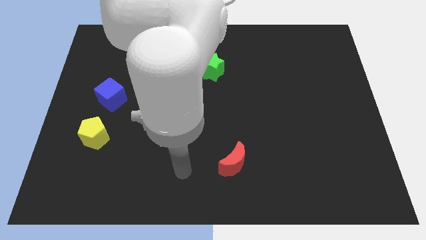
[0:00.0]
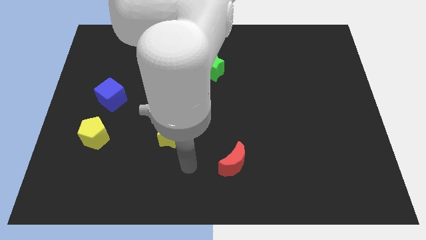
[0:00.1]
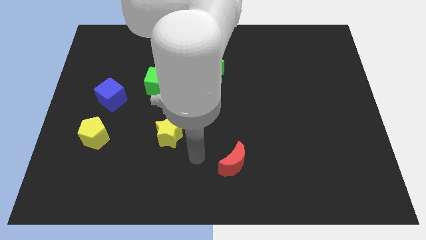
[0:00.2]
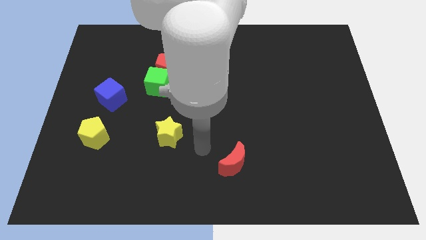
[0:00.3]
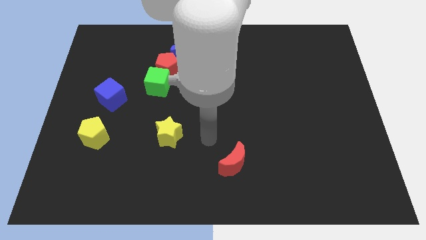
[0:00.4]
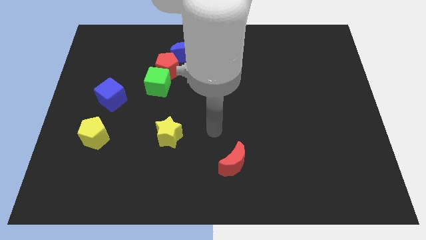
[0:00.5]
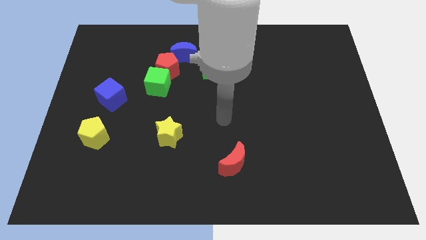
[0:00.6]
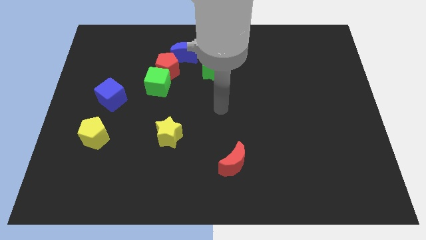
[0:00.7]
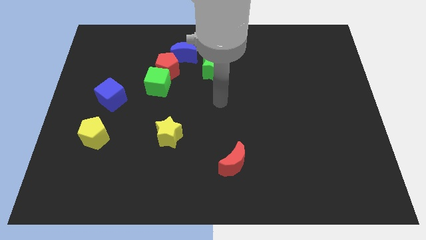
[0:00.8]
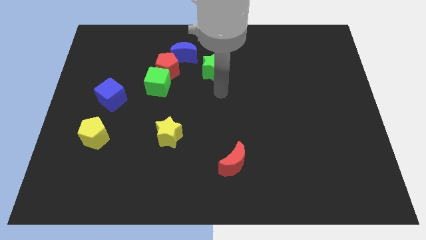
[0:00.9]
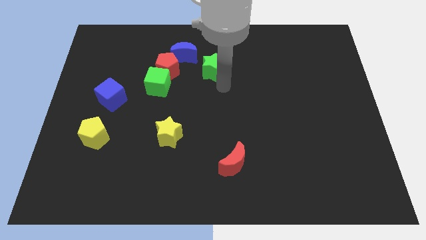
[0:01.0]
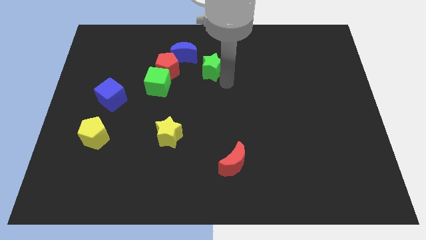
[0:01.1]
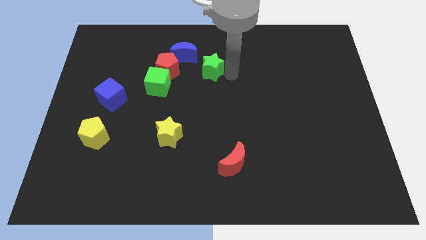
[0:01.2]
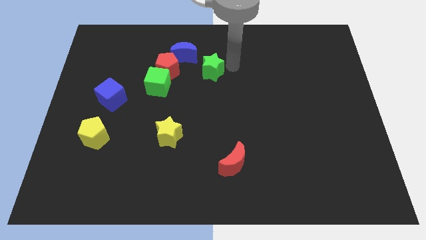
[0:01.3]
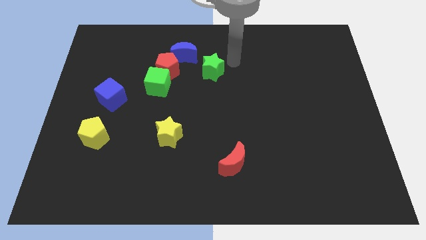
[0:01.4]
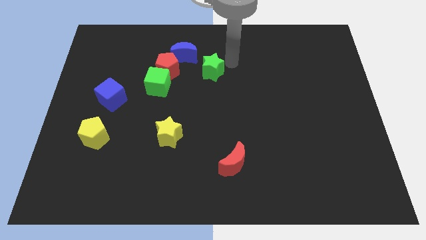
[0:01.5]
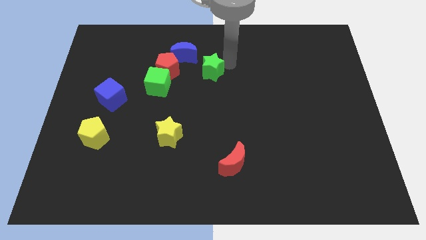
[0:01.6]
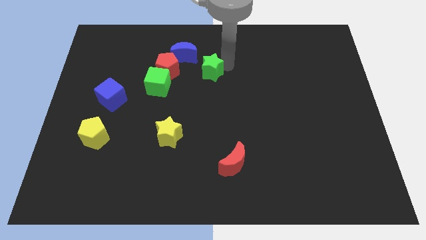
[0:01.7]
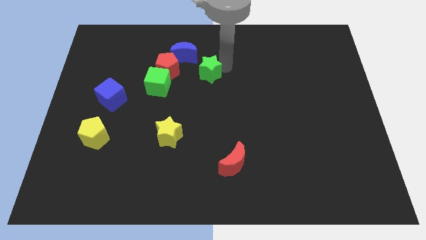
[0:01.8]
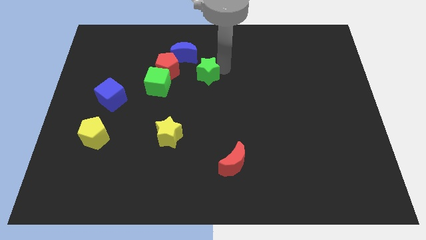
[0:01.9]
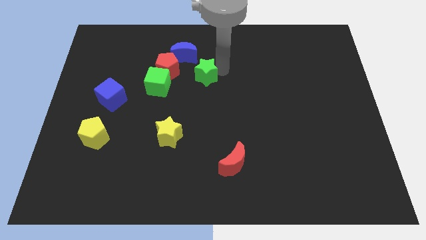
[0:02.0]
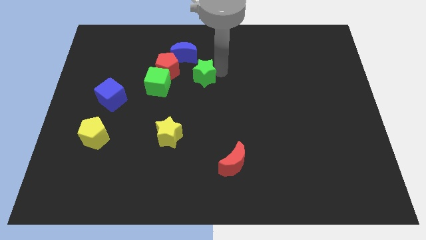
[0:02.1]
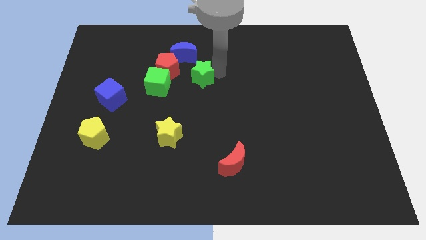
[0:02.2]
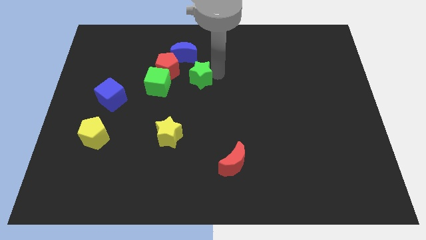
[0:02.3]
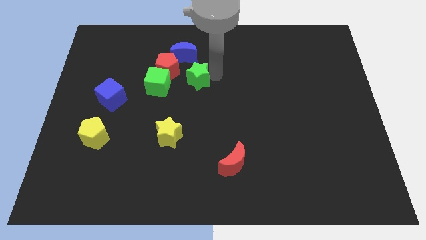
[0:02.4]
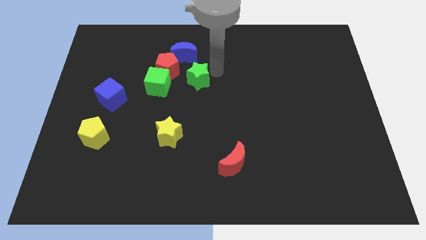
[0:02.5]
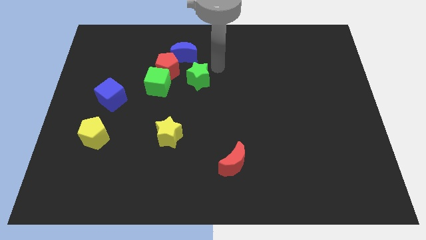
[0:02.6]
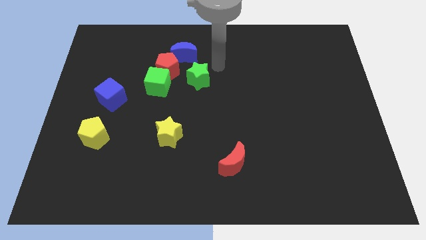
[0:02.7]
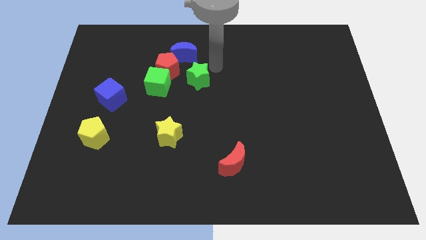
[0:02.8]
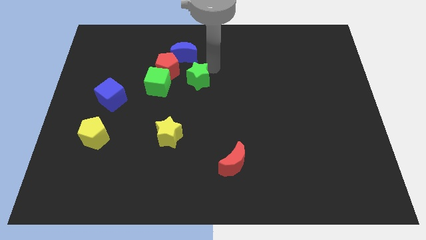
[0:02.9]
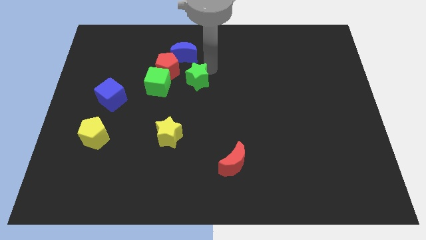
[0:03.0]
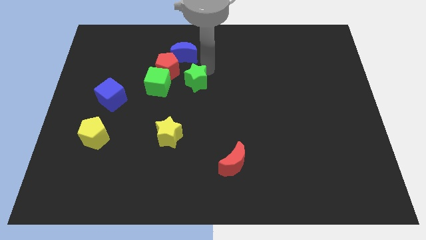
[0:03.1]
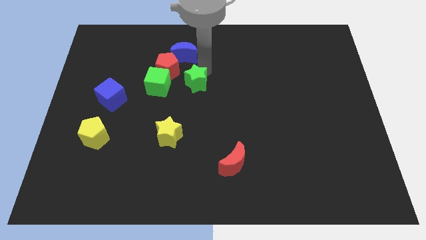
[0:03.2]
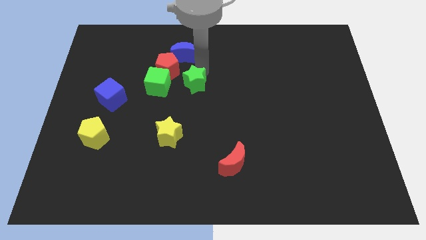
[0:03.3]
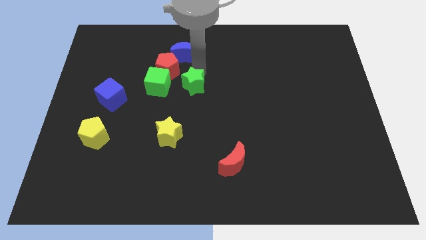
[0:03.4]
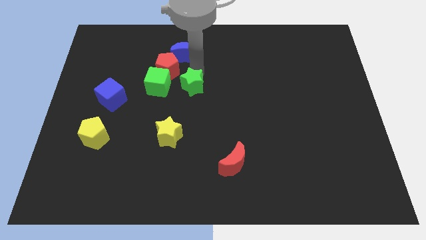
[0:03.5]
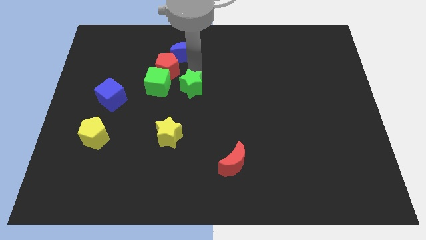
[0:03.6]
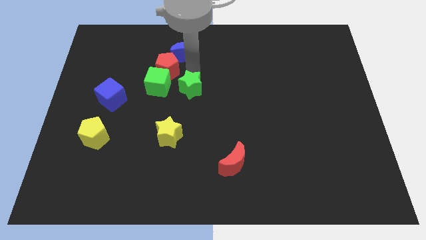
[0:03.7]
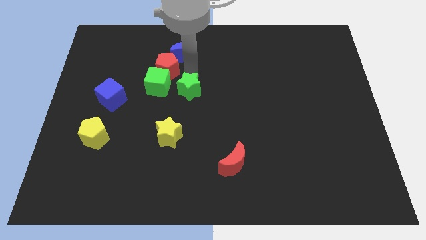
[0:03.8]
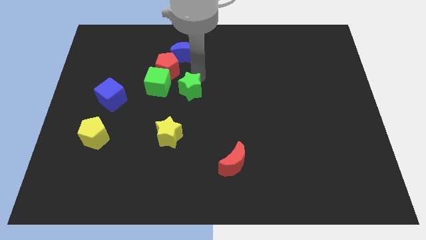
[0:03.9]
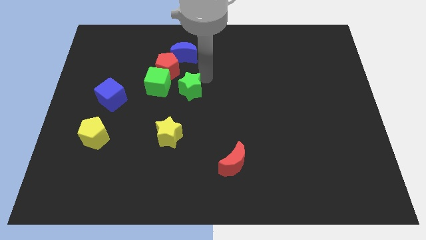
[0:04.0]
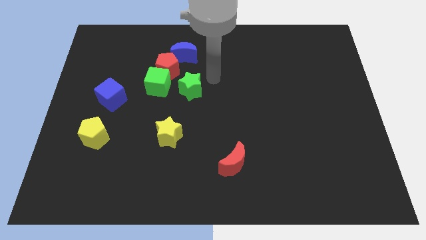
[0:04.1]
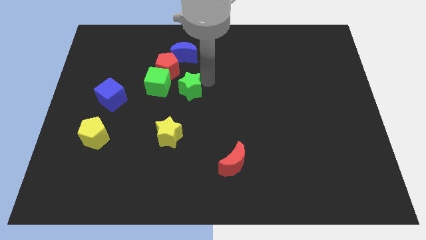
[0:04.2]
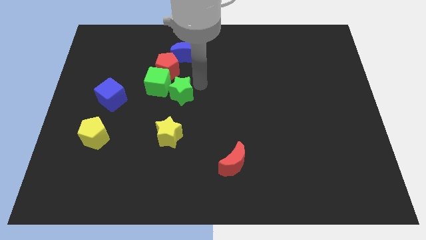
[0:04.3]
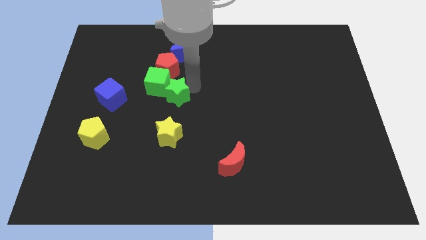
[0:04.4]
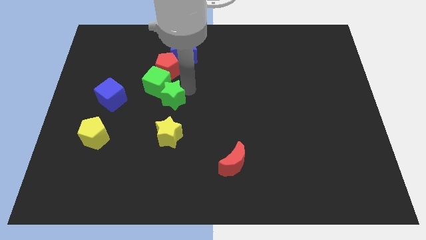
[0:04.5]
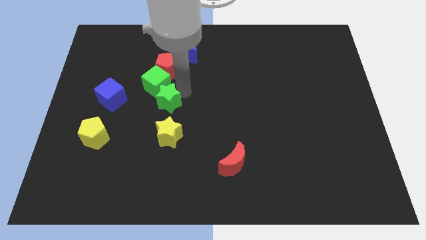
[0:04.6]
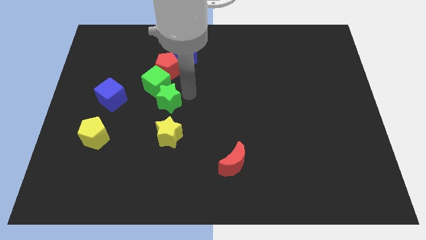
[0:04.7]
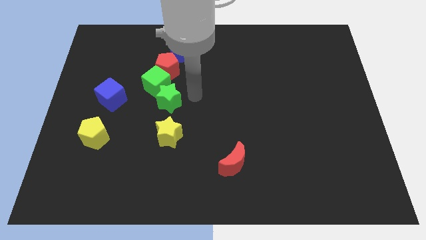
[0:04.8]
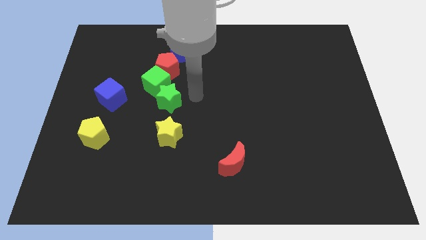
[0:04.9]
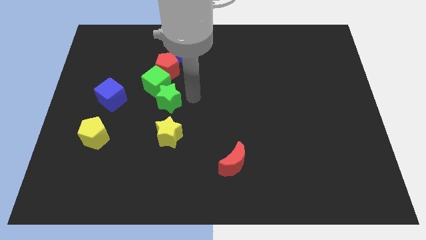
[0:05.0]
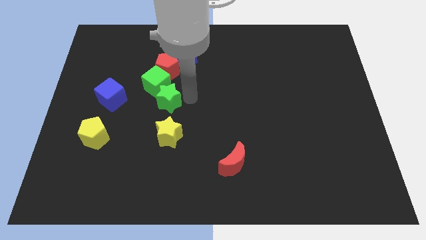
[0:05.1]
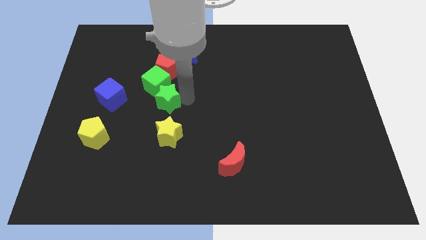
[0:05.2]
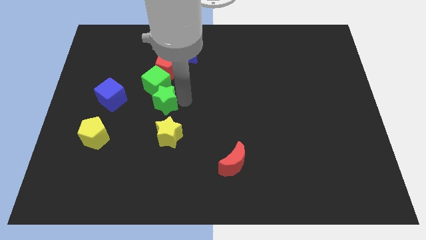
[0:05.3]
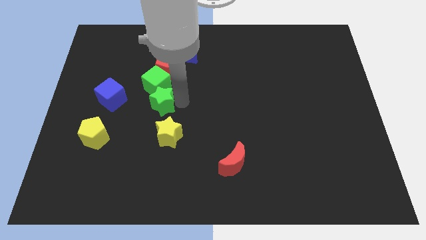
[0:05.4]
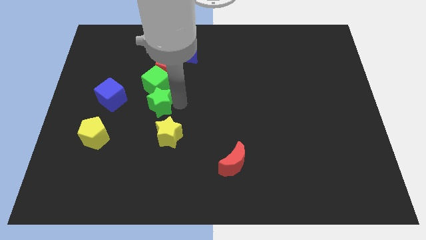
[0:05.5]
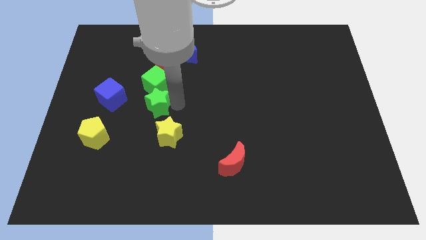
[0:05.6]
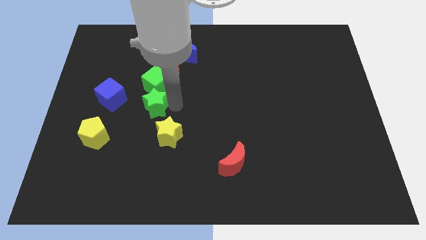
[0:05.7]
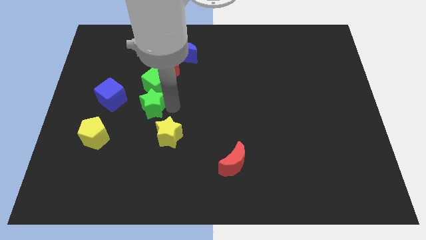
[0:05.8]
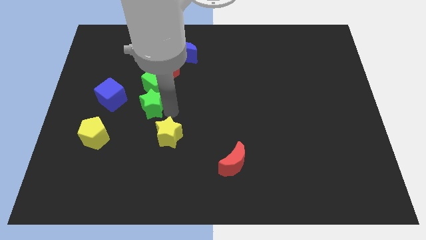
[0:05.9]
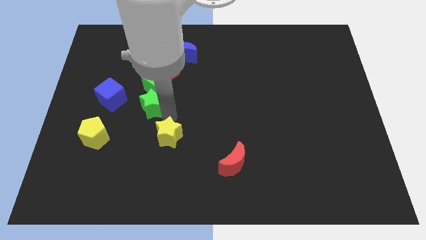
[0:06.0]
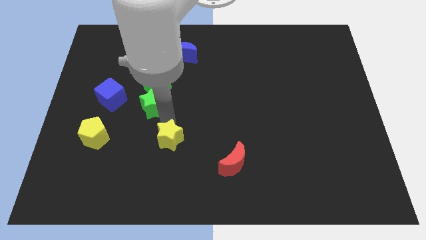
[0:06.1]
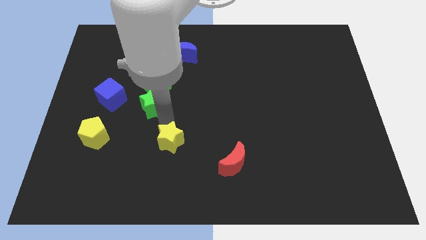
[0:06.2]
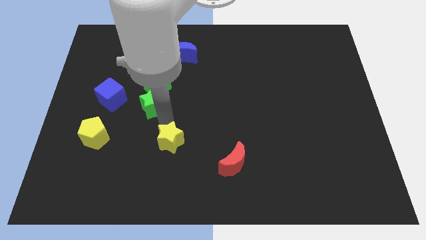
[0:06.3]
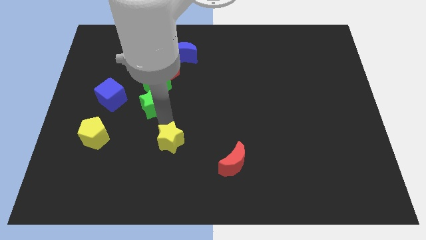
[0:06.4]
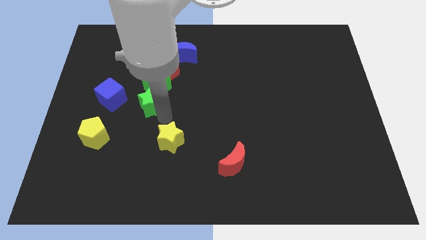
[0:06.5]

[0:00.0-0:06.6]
slightly slide the green star left

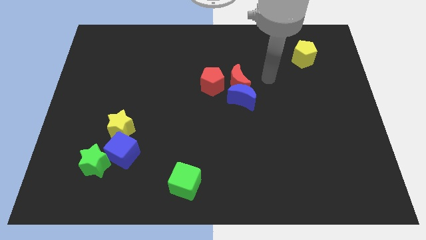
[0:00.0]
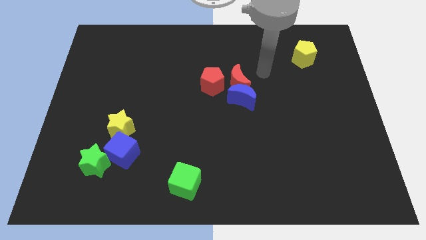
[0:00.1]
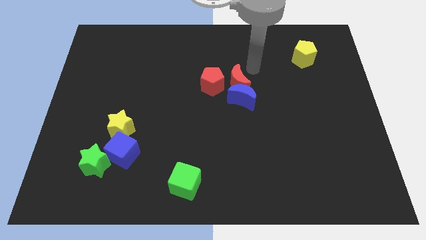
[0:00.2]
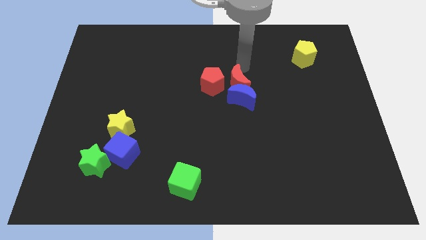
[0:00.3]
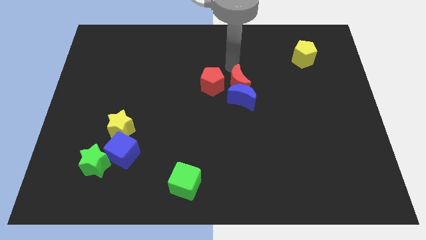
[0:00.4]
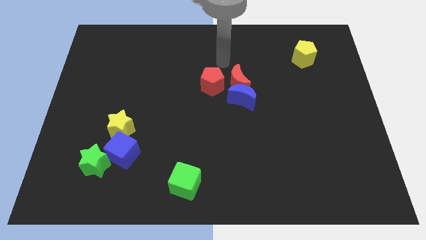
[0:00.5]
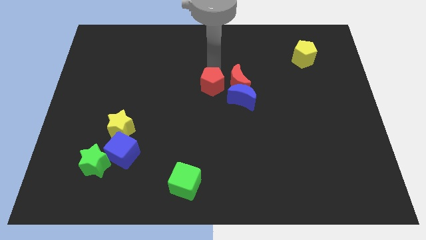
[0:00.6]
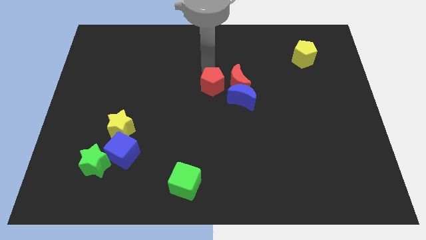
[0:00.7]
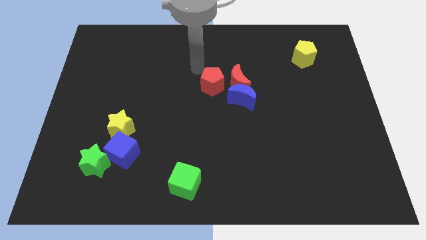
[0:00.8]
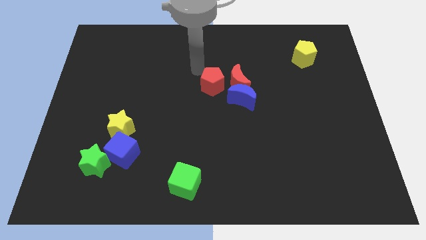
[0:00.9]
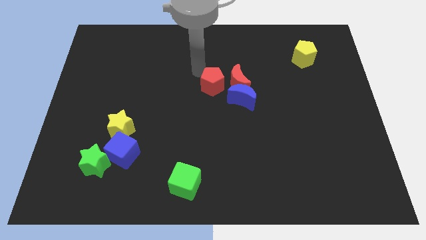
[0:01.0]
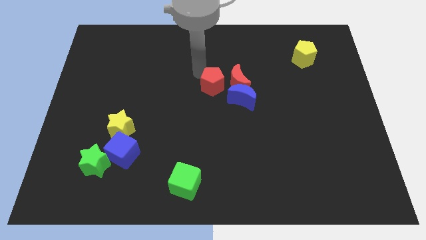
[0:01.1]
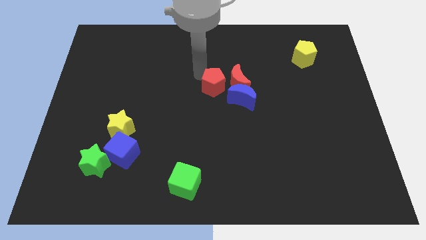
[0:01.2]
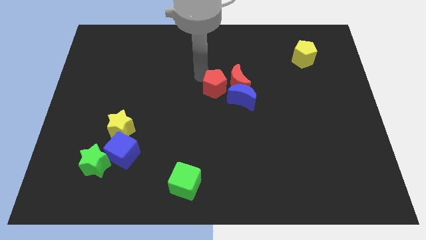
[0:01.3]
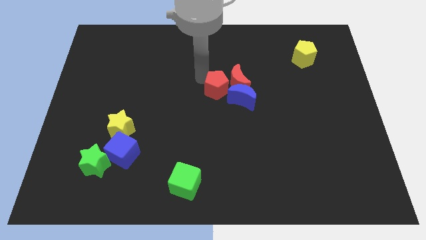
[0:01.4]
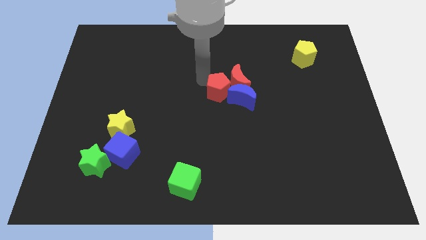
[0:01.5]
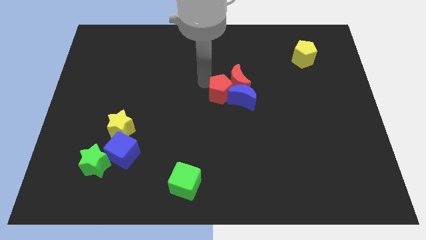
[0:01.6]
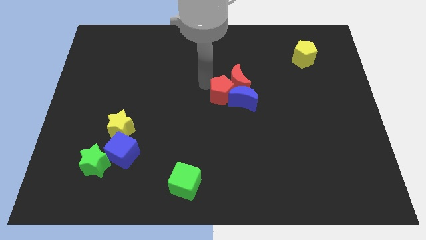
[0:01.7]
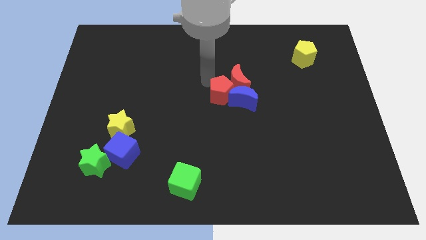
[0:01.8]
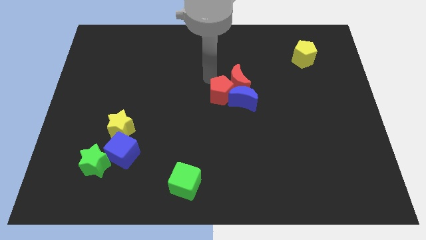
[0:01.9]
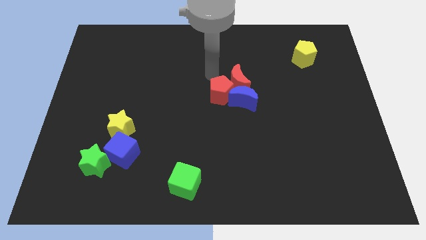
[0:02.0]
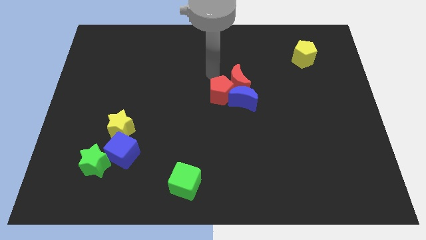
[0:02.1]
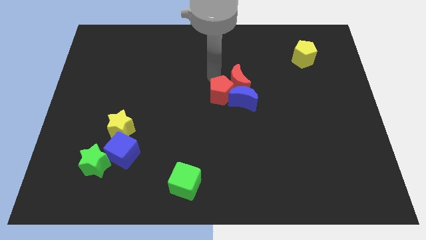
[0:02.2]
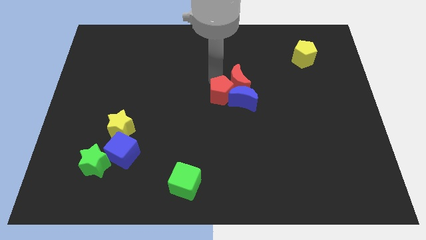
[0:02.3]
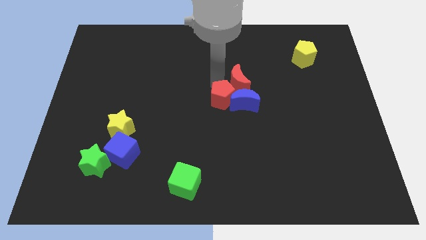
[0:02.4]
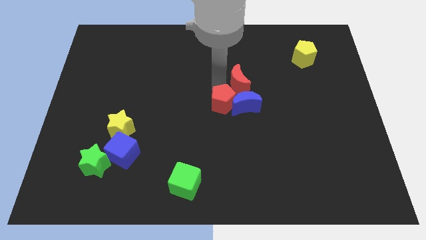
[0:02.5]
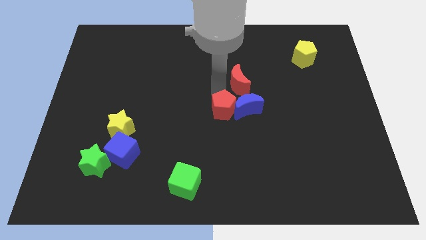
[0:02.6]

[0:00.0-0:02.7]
push the red pentagon down and to the right diagonally a little bit
